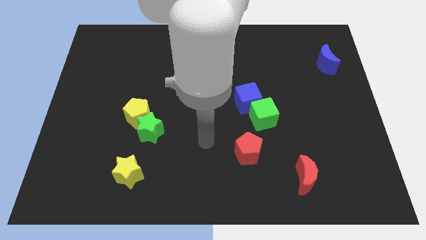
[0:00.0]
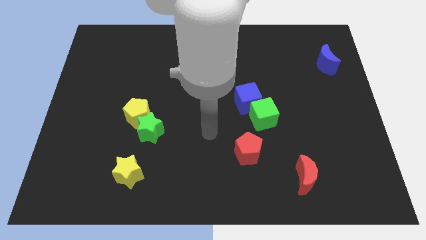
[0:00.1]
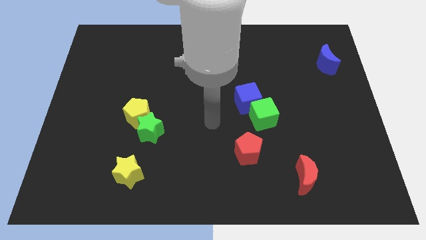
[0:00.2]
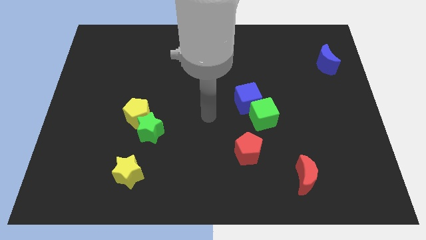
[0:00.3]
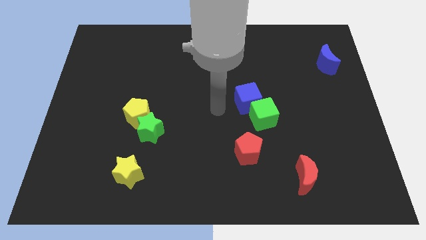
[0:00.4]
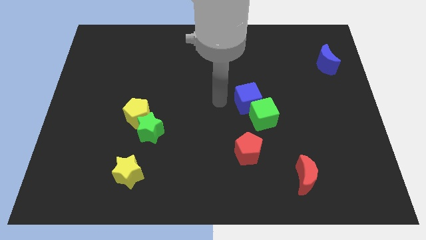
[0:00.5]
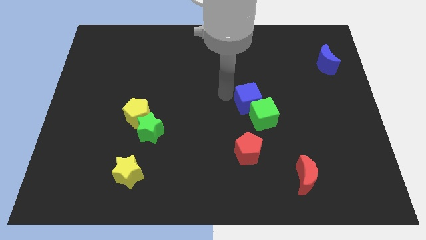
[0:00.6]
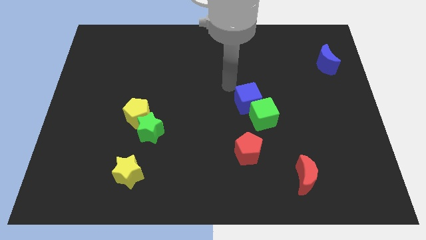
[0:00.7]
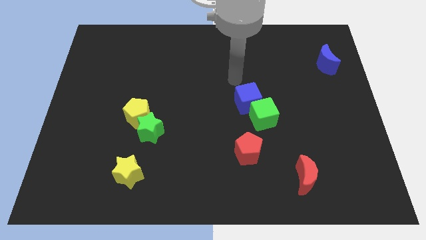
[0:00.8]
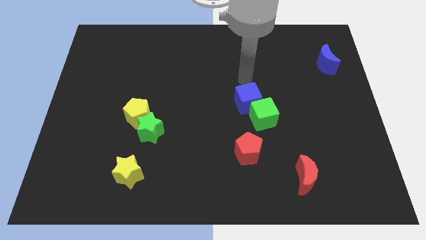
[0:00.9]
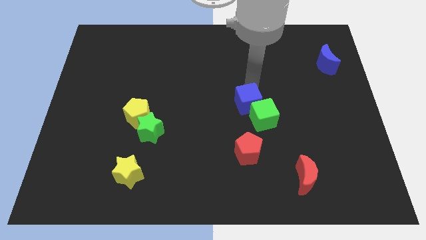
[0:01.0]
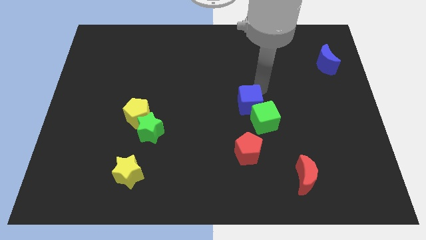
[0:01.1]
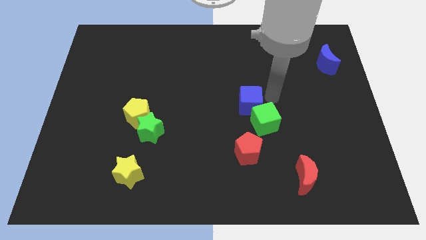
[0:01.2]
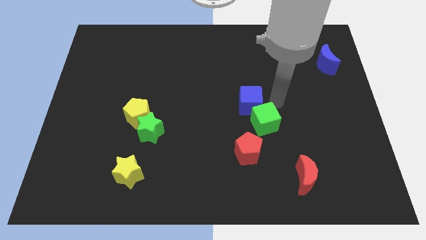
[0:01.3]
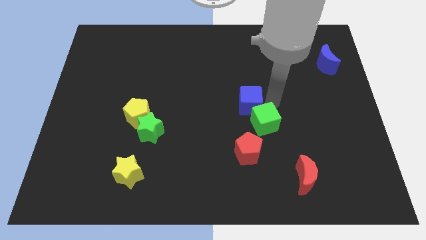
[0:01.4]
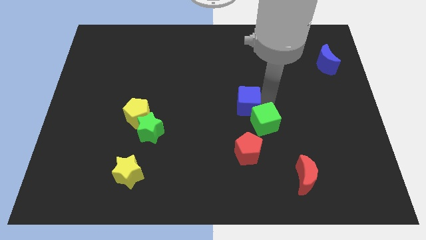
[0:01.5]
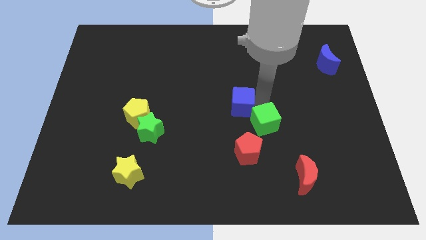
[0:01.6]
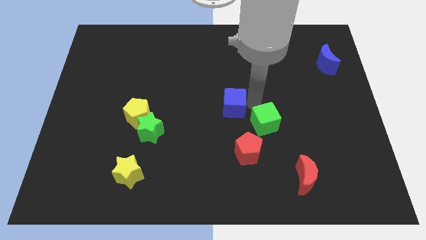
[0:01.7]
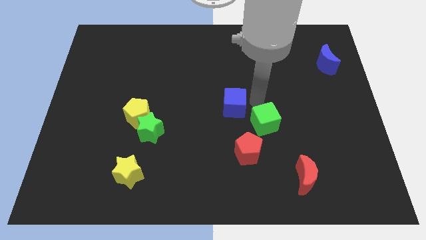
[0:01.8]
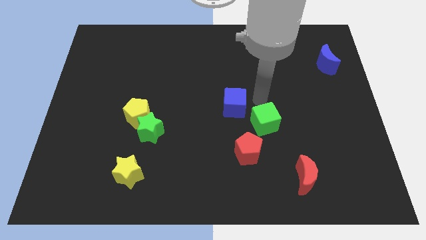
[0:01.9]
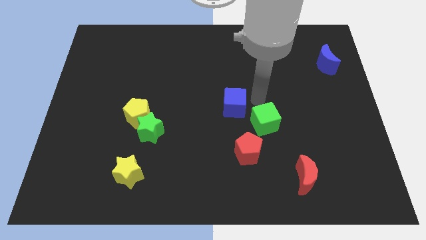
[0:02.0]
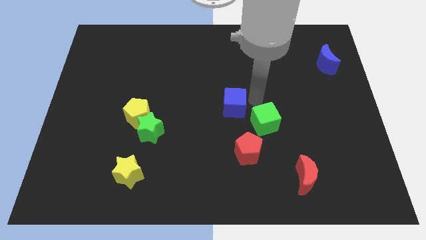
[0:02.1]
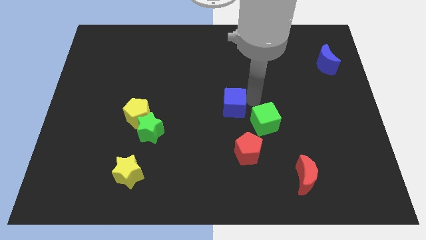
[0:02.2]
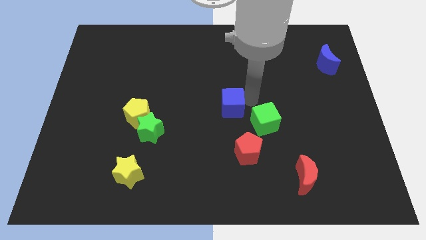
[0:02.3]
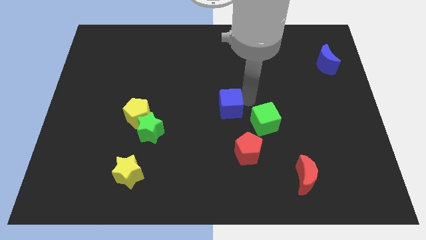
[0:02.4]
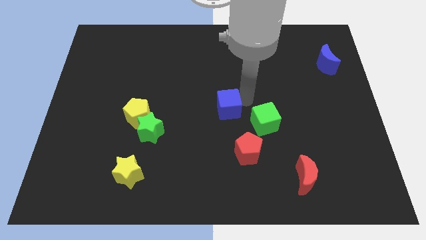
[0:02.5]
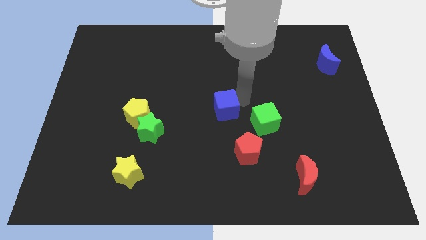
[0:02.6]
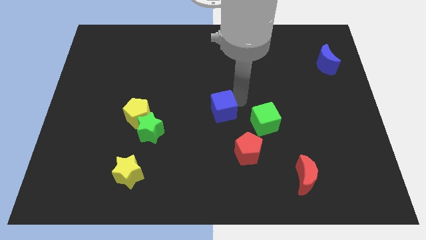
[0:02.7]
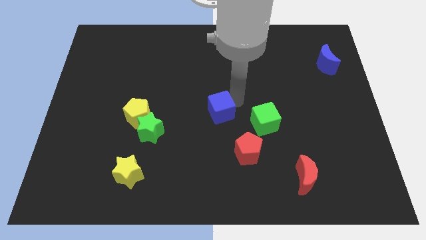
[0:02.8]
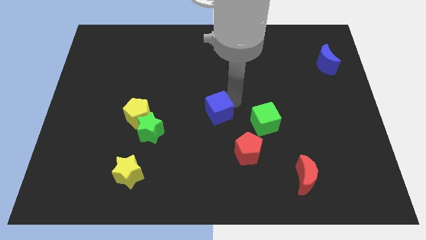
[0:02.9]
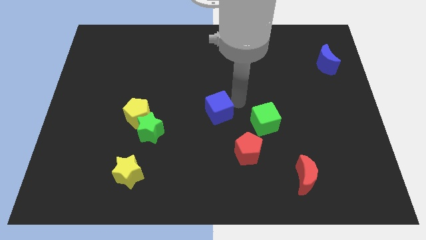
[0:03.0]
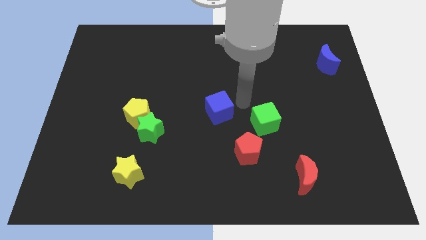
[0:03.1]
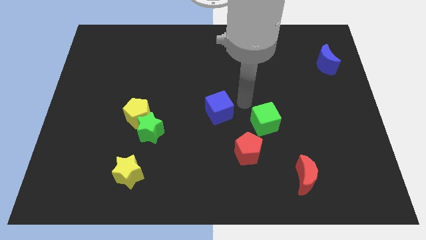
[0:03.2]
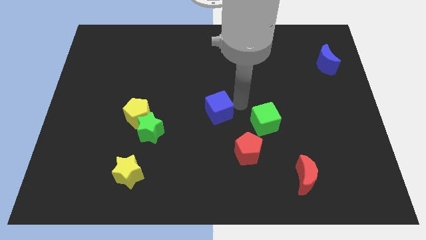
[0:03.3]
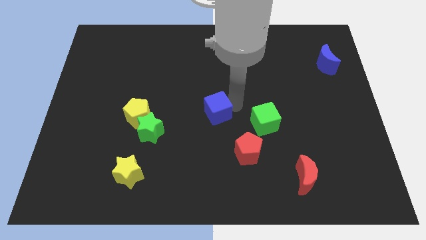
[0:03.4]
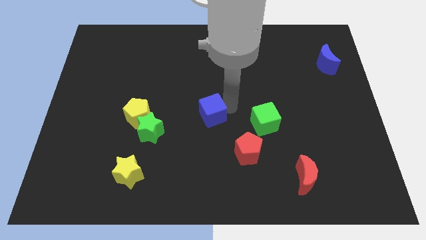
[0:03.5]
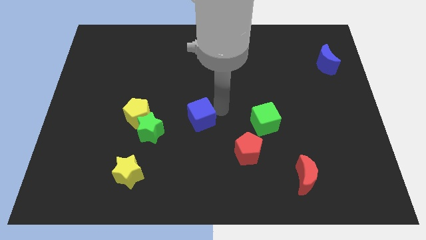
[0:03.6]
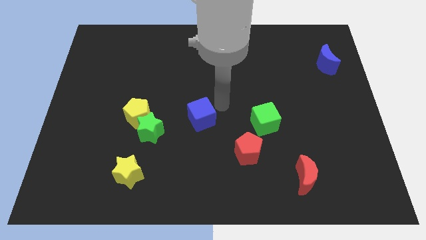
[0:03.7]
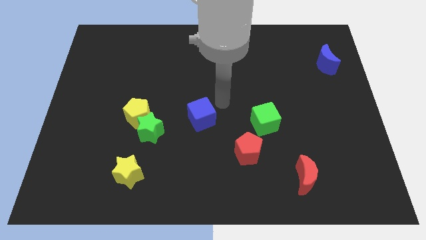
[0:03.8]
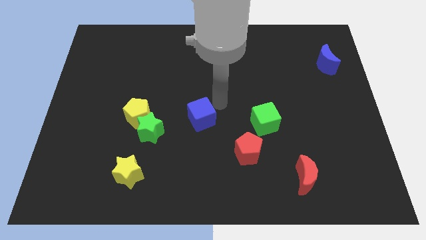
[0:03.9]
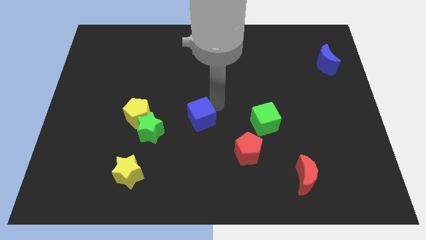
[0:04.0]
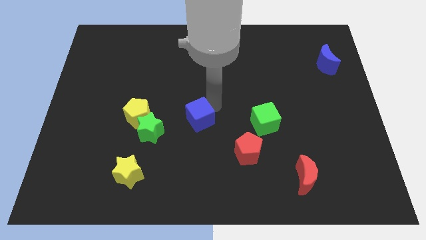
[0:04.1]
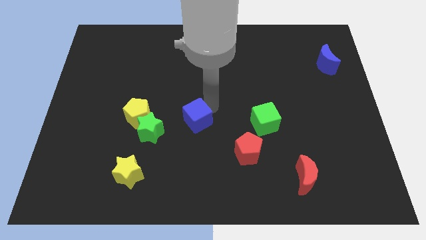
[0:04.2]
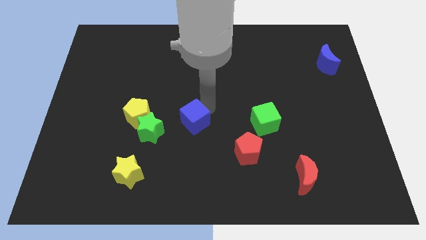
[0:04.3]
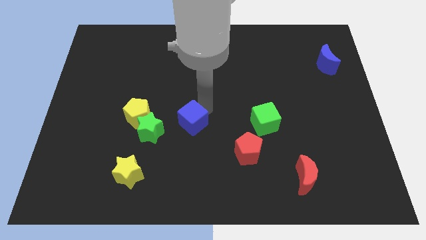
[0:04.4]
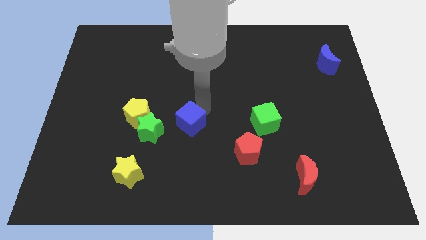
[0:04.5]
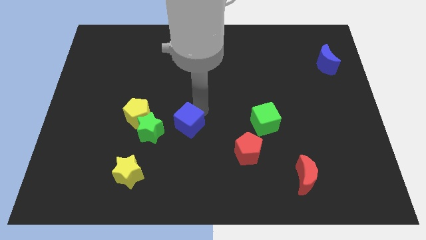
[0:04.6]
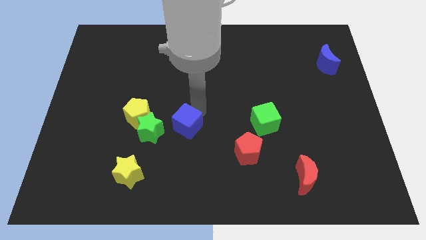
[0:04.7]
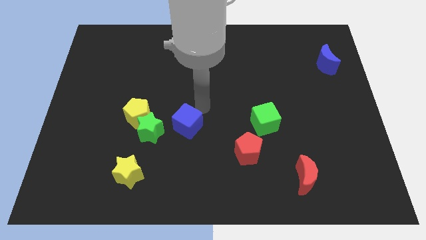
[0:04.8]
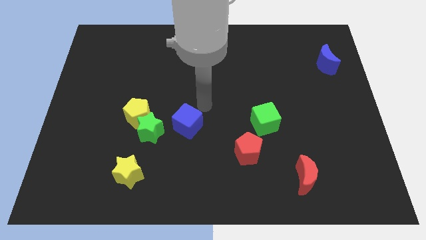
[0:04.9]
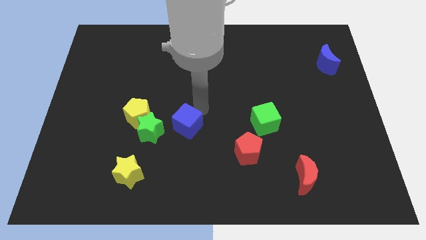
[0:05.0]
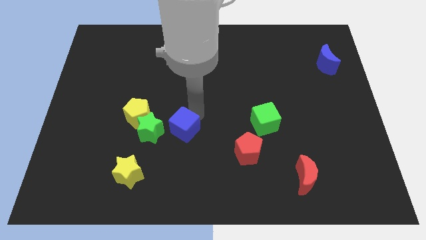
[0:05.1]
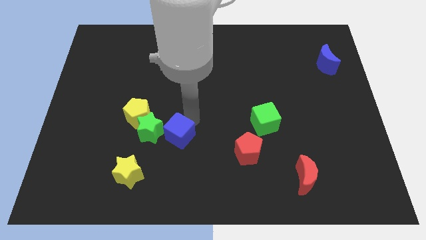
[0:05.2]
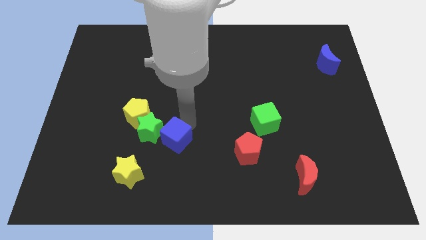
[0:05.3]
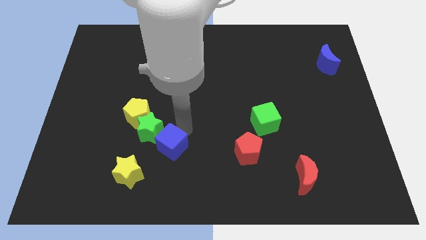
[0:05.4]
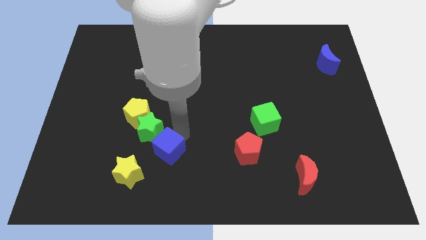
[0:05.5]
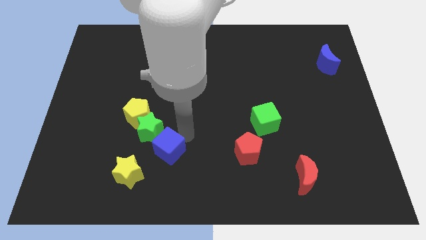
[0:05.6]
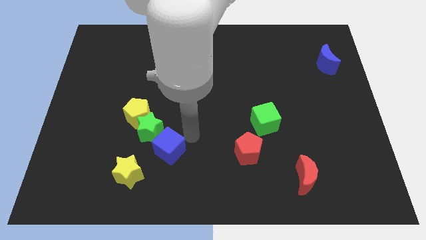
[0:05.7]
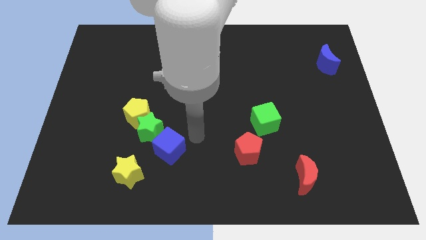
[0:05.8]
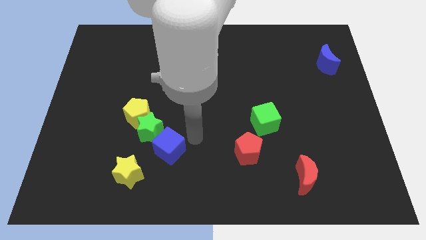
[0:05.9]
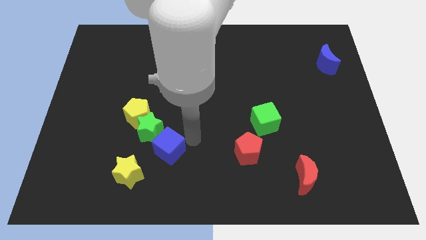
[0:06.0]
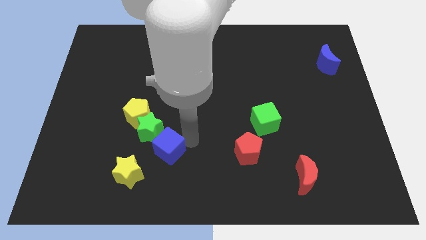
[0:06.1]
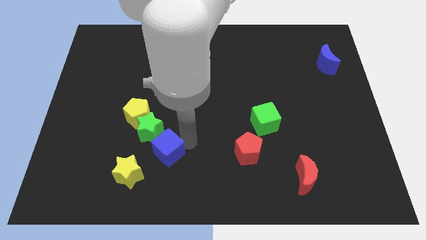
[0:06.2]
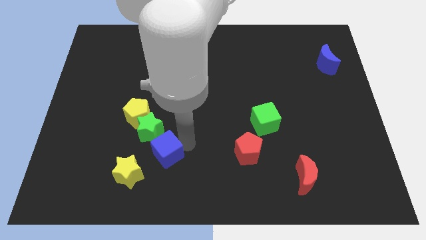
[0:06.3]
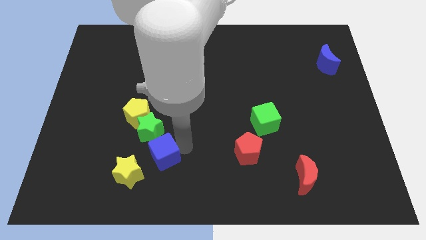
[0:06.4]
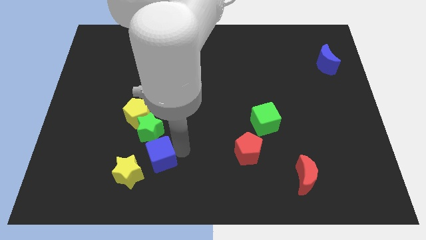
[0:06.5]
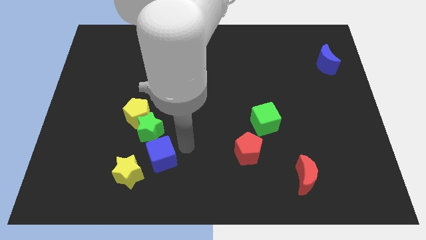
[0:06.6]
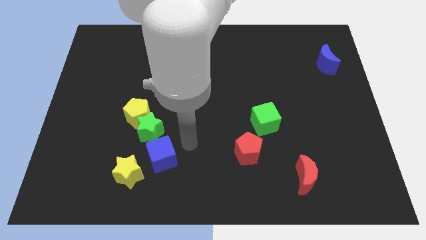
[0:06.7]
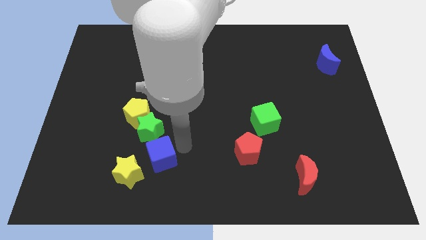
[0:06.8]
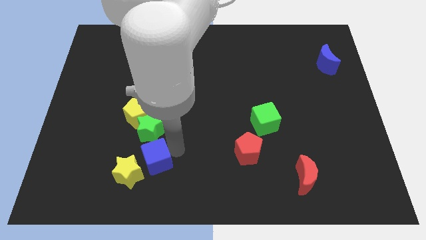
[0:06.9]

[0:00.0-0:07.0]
push the blue cube to the yellow star

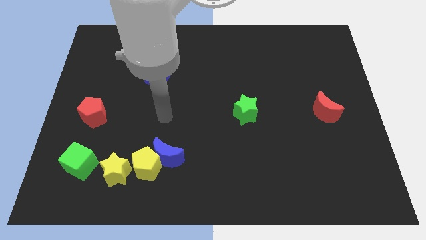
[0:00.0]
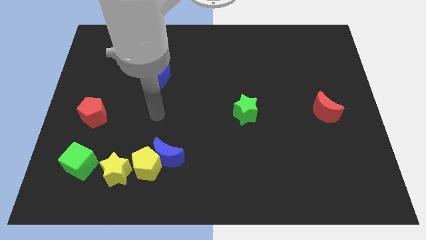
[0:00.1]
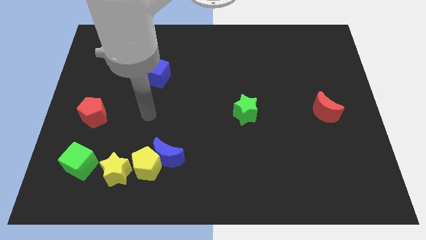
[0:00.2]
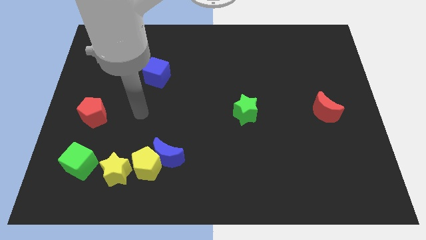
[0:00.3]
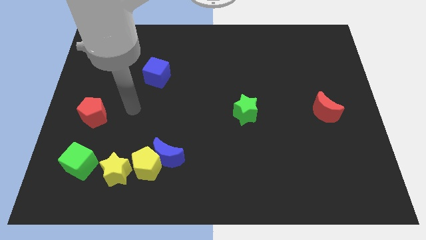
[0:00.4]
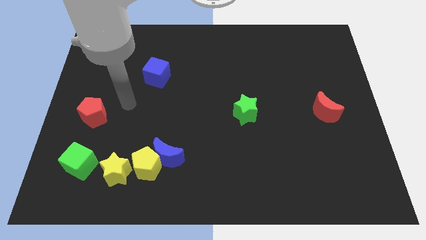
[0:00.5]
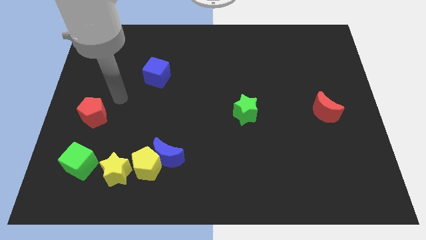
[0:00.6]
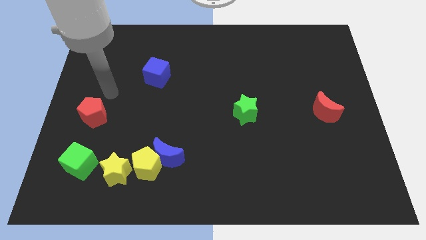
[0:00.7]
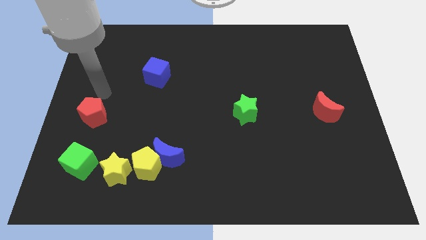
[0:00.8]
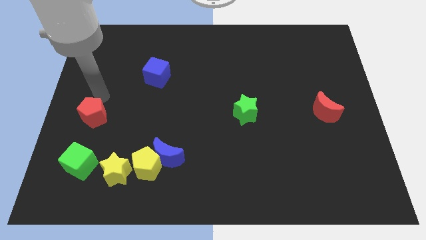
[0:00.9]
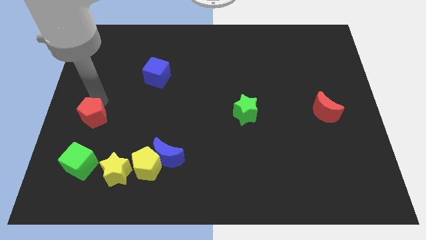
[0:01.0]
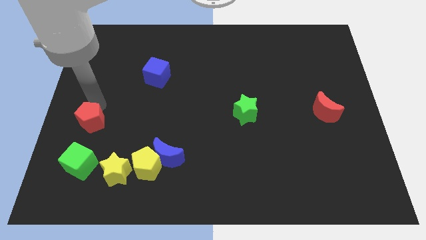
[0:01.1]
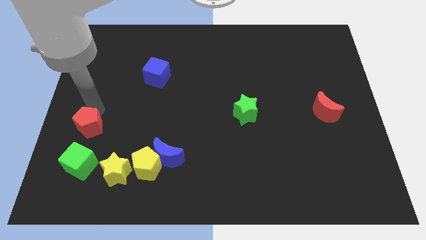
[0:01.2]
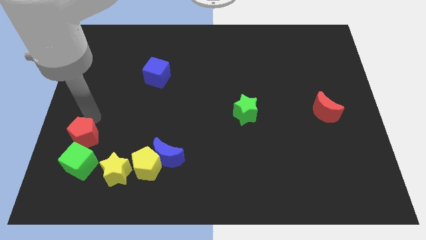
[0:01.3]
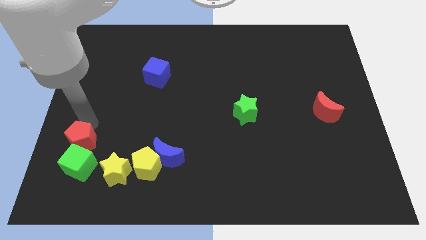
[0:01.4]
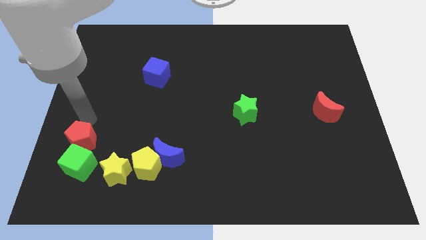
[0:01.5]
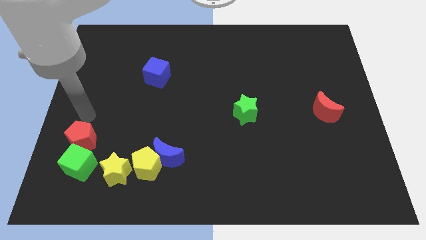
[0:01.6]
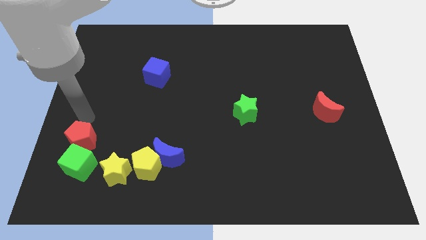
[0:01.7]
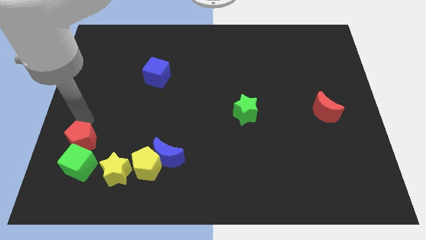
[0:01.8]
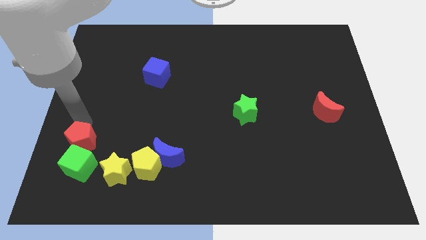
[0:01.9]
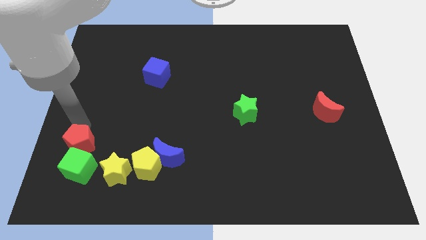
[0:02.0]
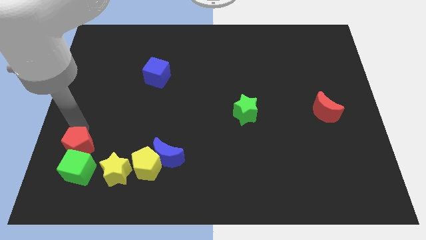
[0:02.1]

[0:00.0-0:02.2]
put the red pentagon towards the green cube
